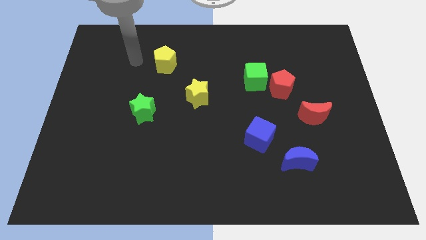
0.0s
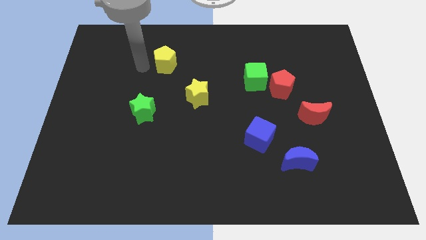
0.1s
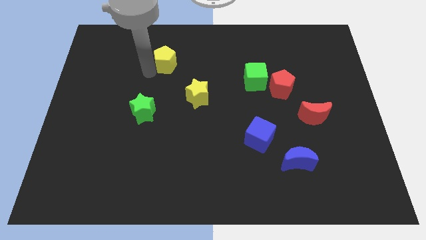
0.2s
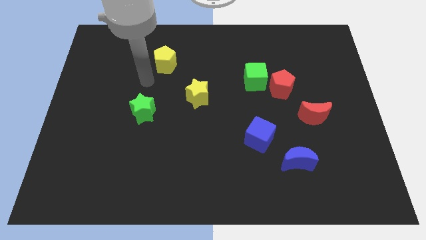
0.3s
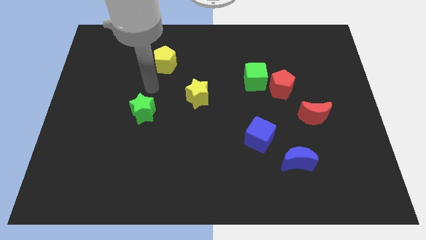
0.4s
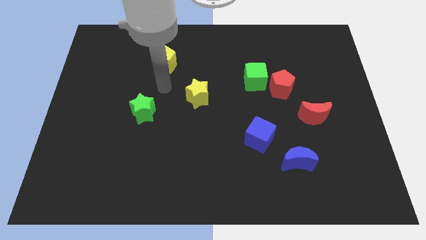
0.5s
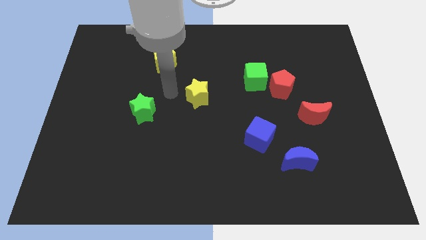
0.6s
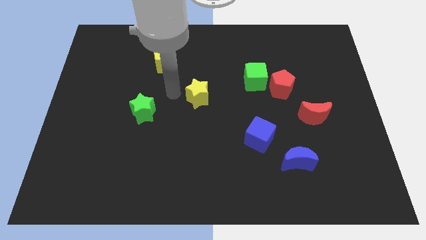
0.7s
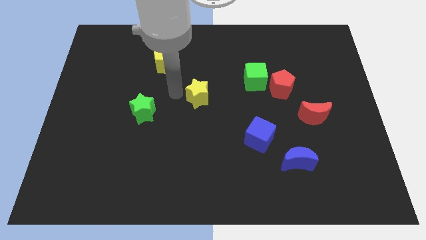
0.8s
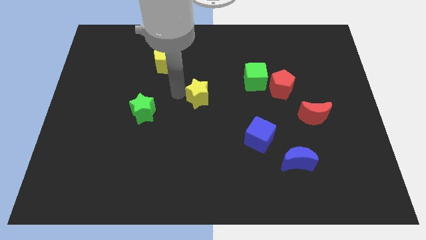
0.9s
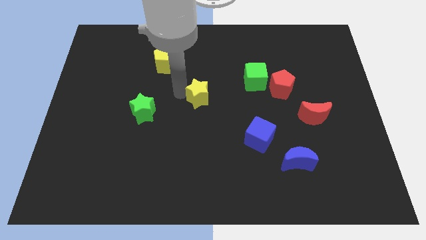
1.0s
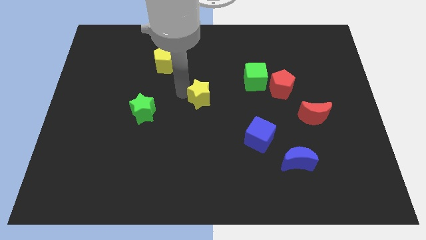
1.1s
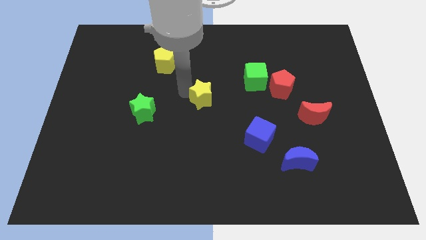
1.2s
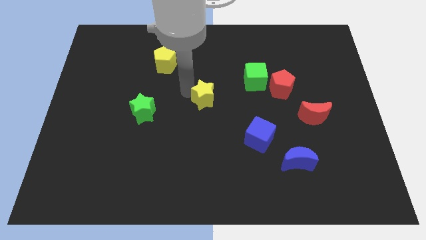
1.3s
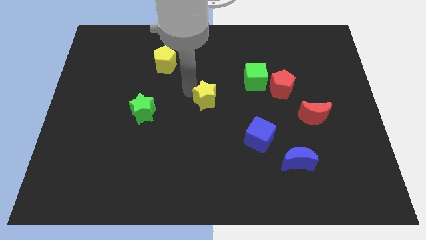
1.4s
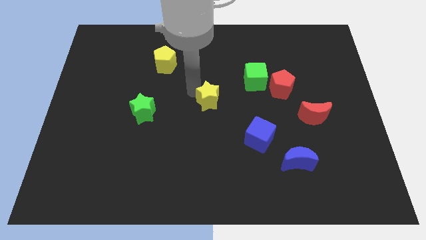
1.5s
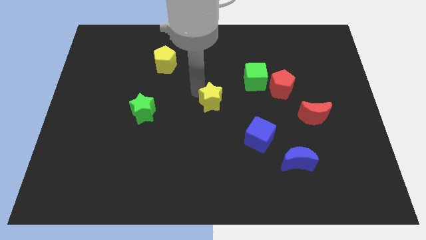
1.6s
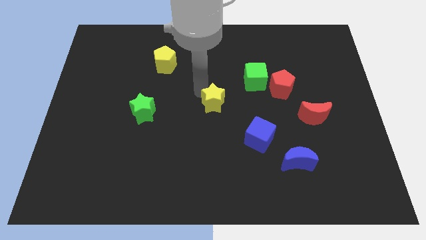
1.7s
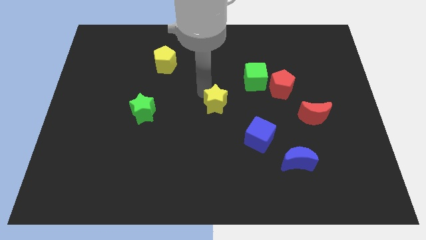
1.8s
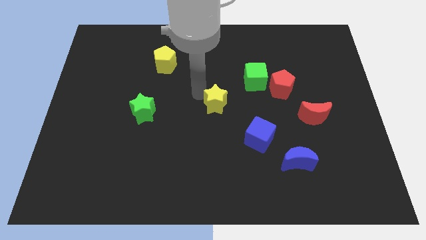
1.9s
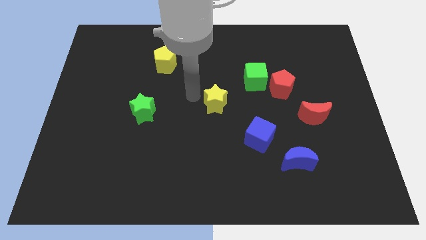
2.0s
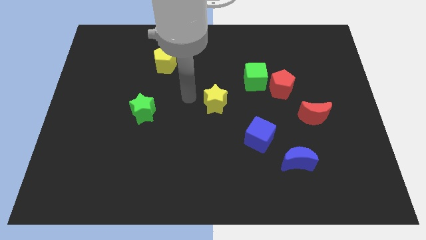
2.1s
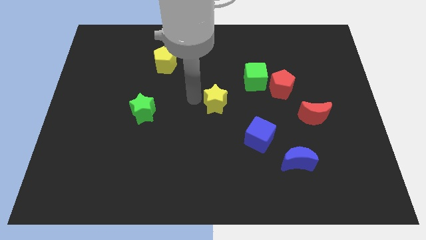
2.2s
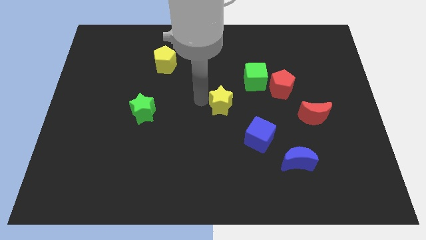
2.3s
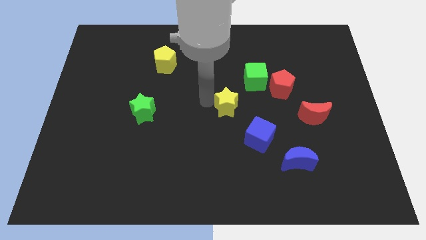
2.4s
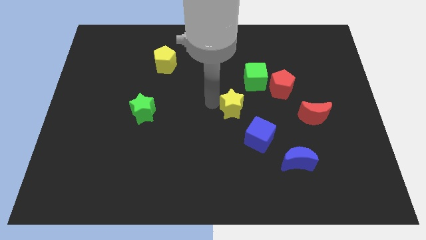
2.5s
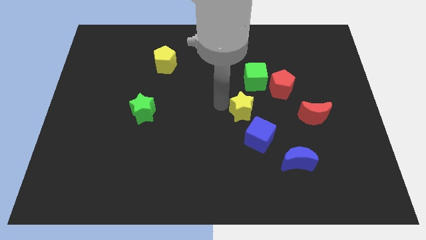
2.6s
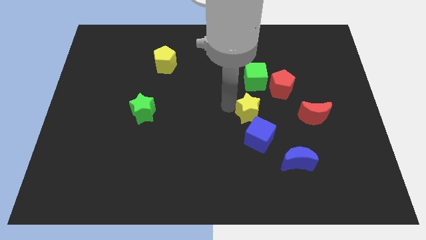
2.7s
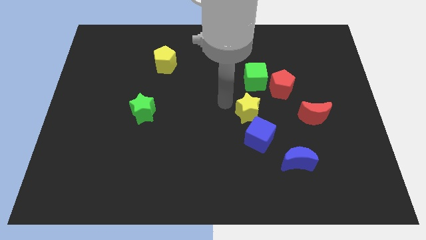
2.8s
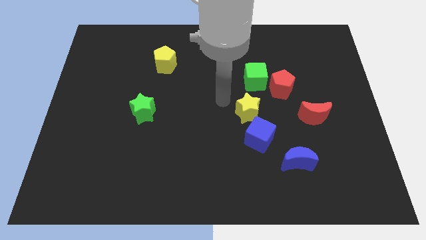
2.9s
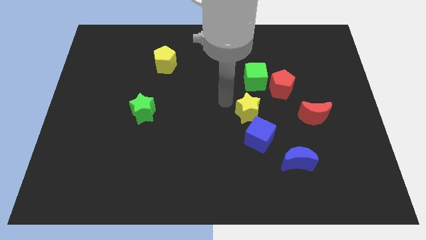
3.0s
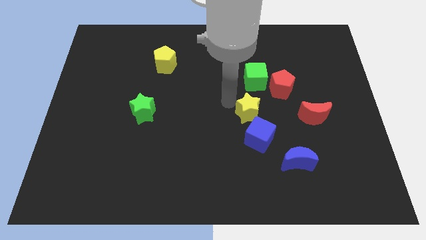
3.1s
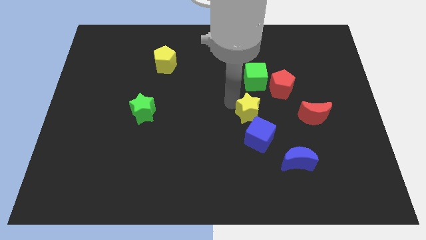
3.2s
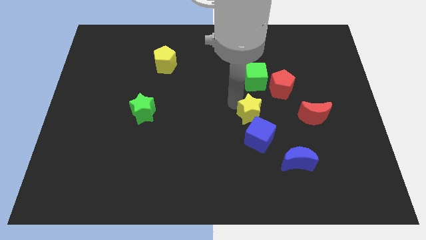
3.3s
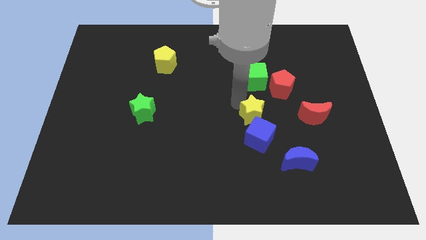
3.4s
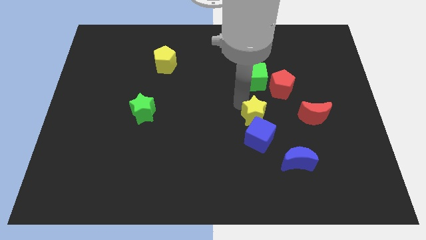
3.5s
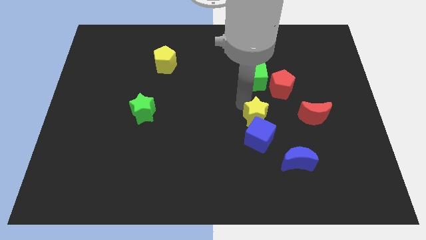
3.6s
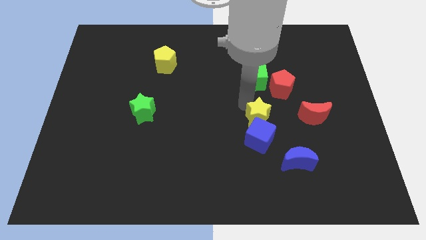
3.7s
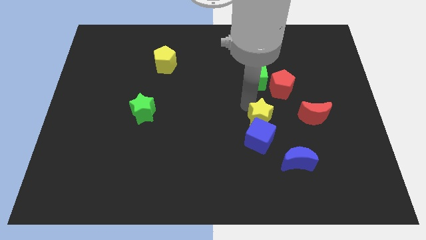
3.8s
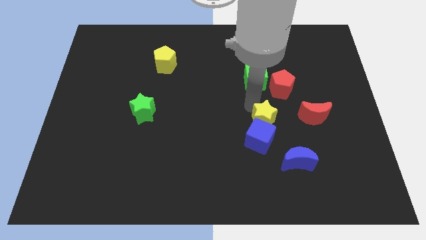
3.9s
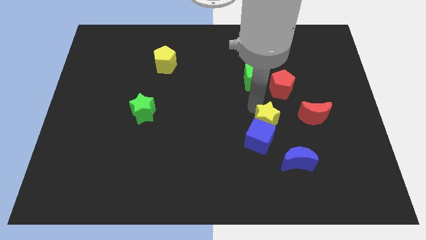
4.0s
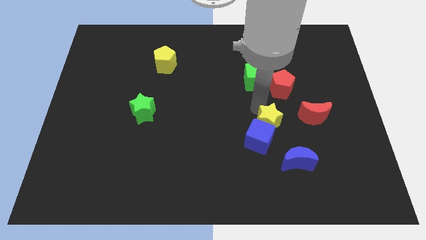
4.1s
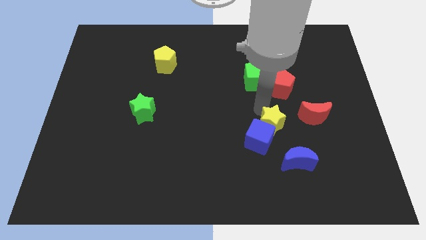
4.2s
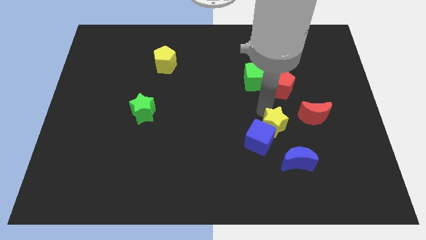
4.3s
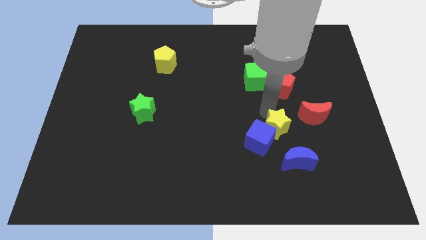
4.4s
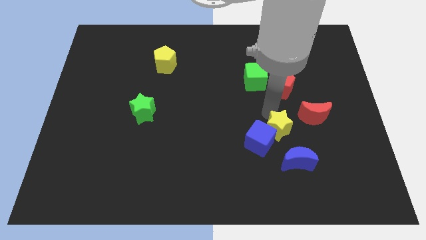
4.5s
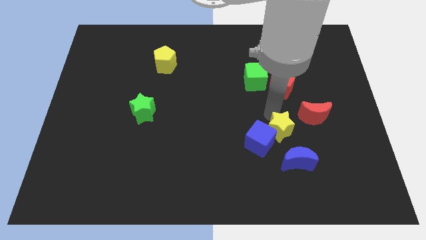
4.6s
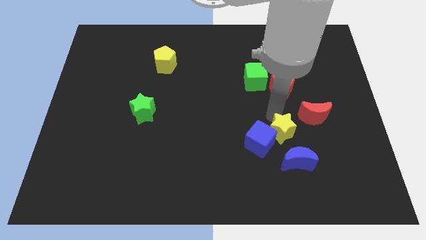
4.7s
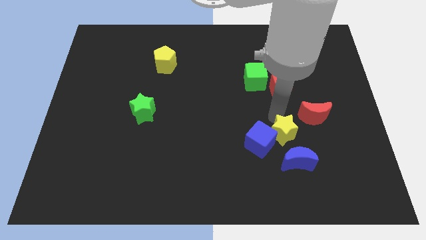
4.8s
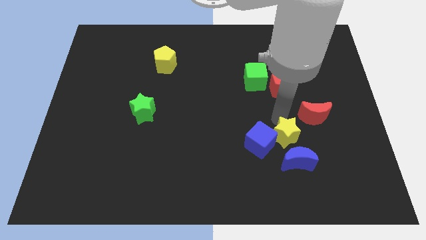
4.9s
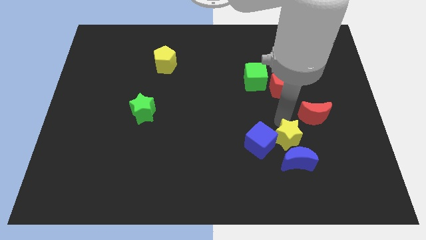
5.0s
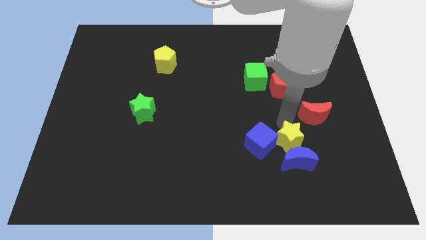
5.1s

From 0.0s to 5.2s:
put the yellow star close to the blue moon

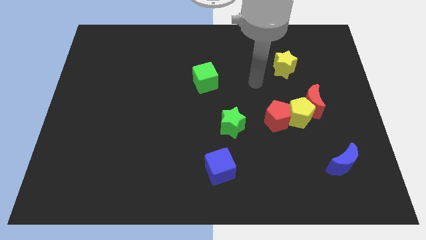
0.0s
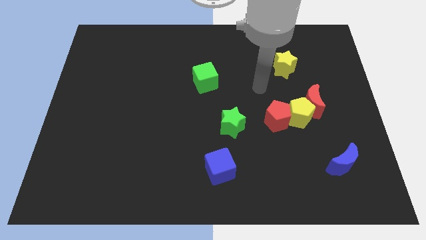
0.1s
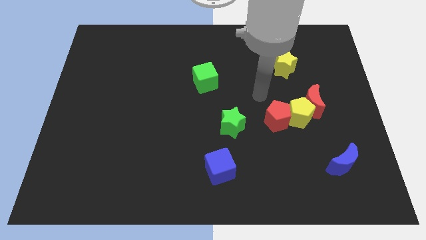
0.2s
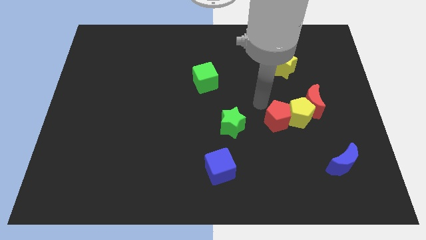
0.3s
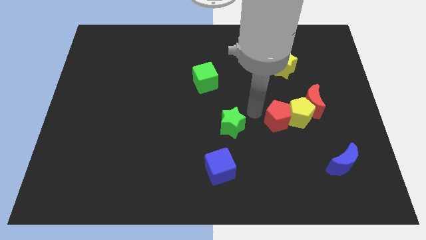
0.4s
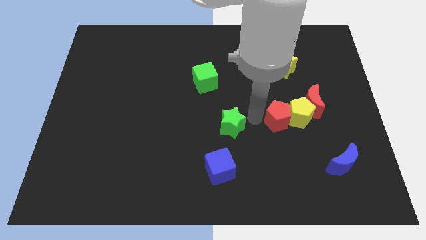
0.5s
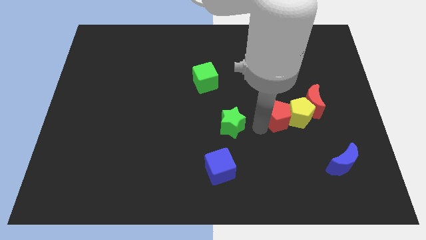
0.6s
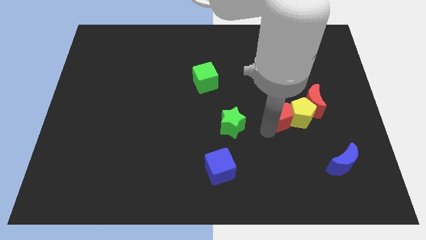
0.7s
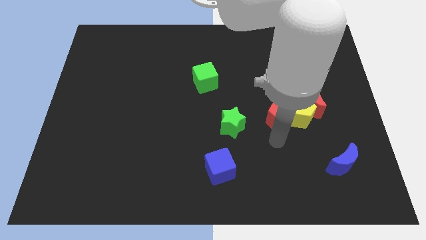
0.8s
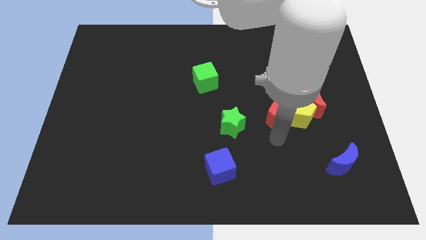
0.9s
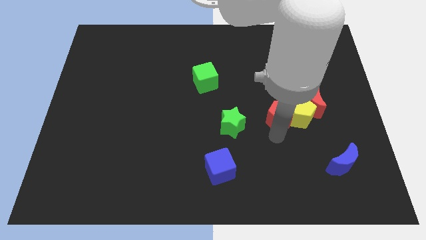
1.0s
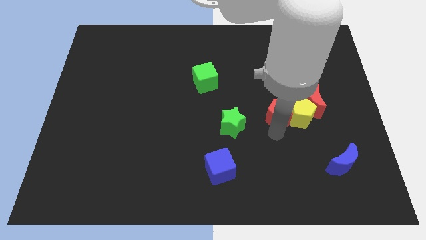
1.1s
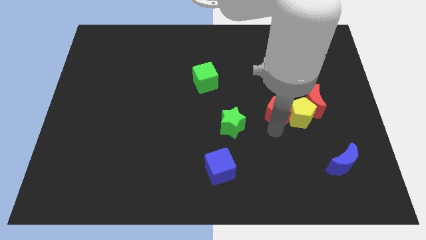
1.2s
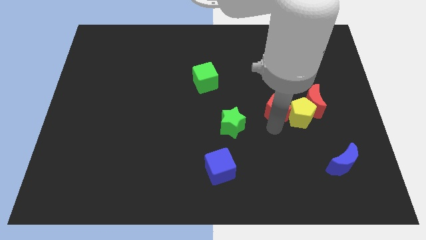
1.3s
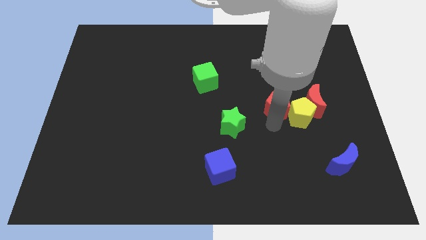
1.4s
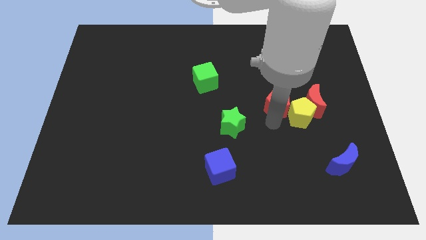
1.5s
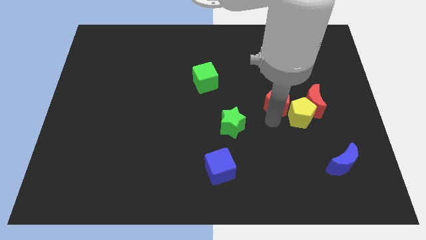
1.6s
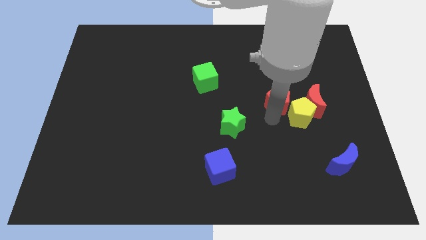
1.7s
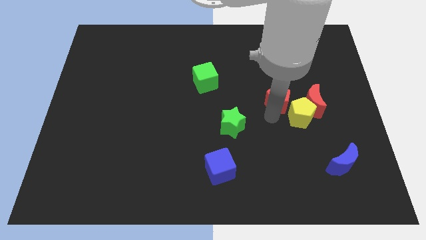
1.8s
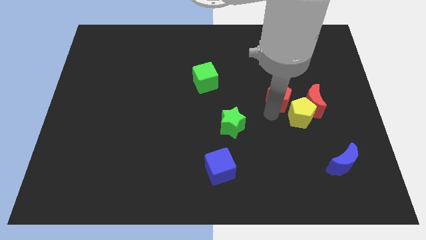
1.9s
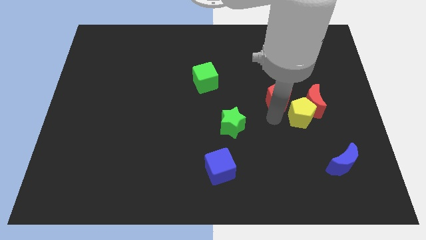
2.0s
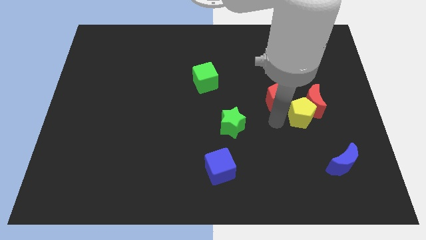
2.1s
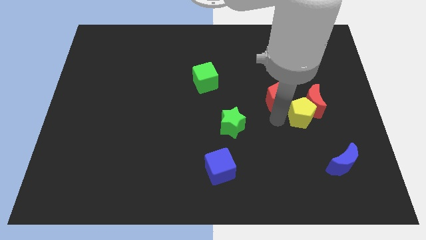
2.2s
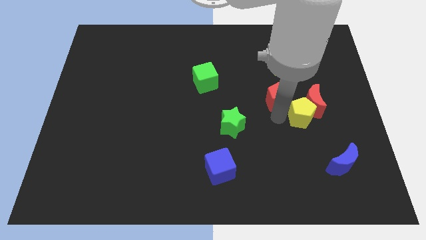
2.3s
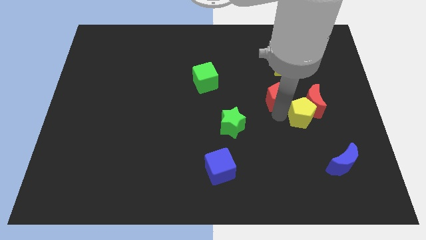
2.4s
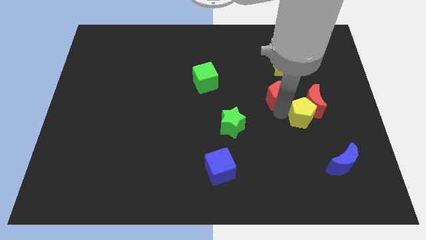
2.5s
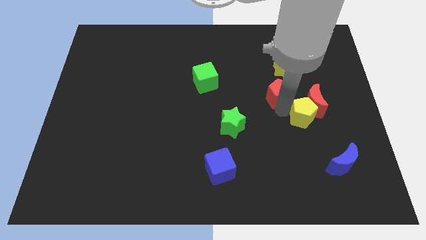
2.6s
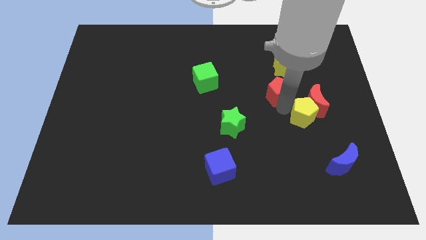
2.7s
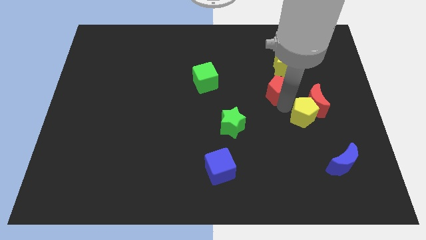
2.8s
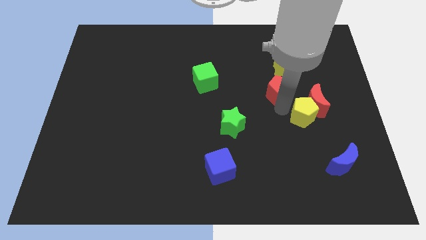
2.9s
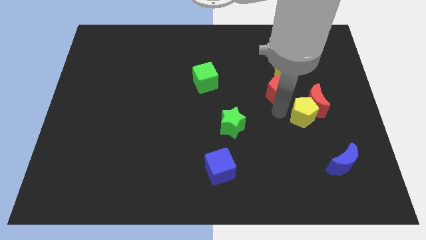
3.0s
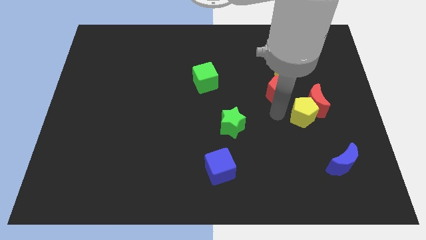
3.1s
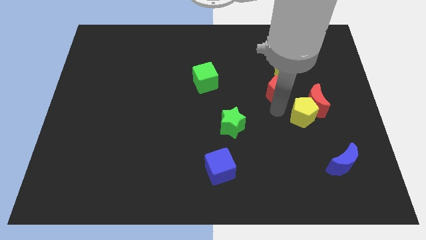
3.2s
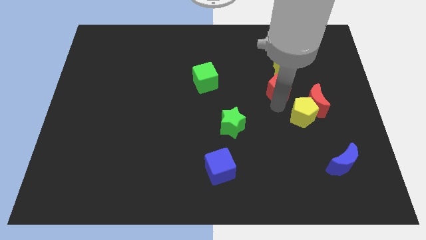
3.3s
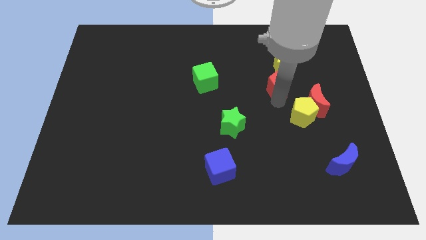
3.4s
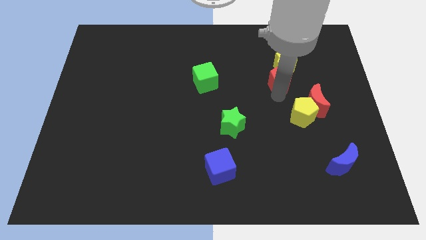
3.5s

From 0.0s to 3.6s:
slide the red pentagon towards the yellow star
